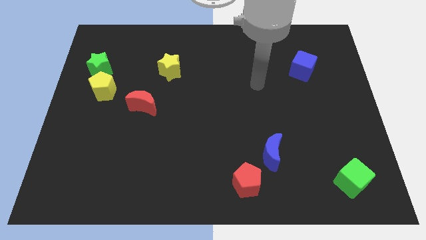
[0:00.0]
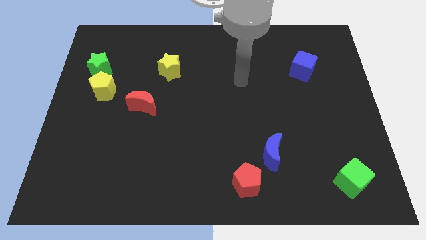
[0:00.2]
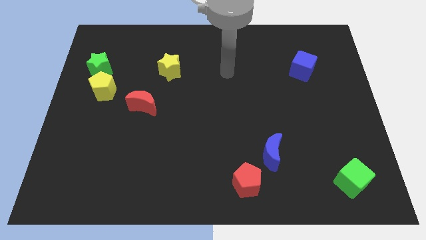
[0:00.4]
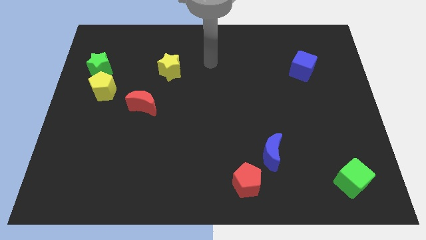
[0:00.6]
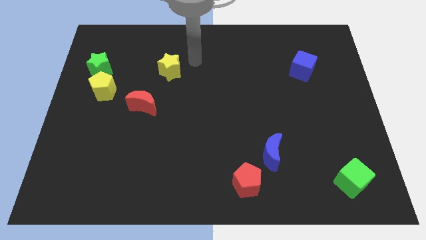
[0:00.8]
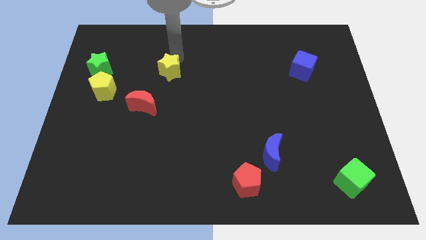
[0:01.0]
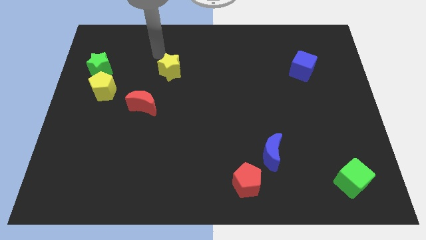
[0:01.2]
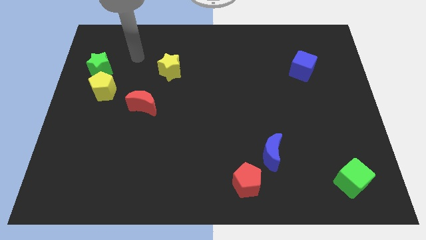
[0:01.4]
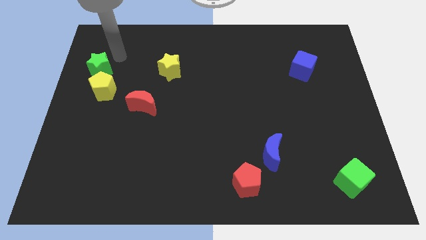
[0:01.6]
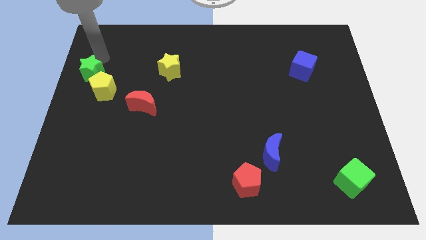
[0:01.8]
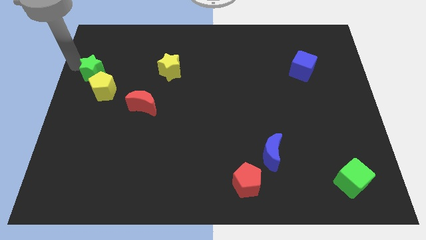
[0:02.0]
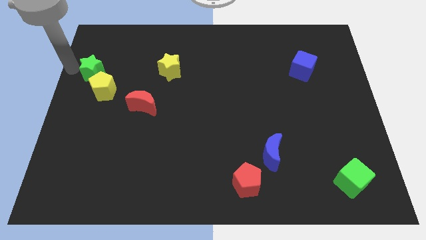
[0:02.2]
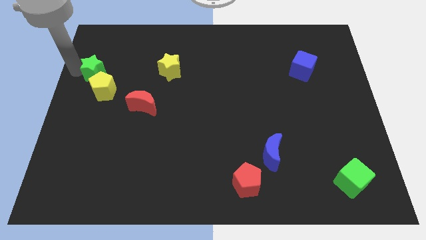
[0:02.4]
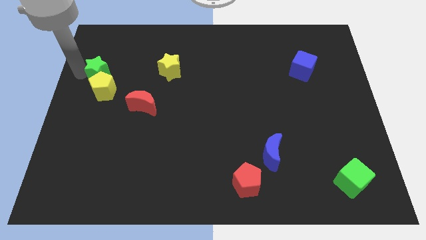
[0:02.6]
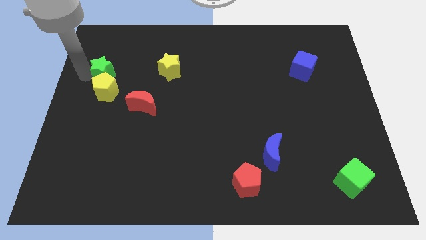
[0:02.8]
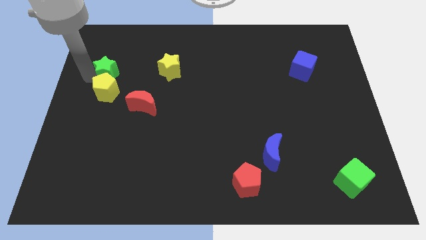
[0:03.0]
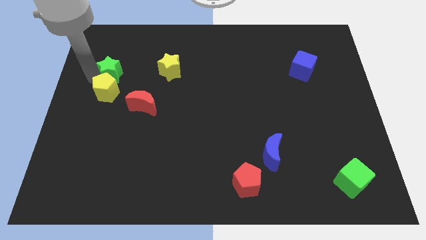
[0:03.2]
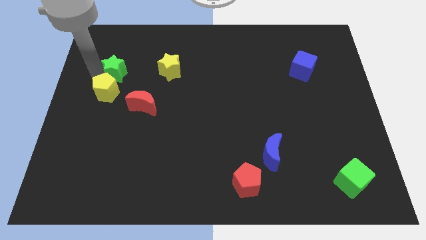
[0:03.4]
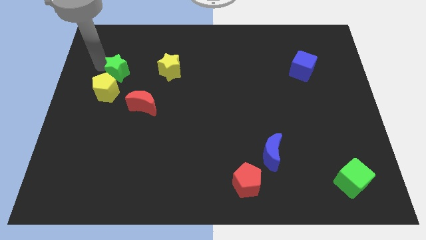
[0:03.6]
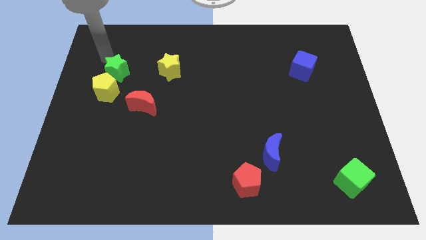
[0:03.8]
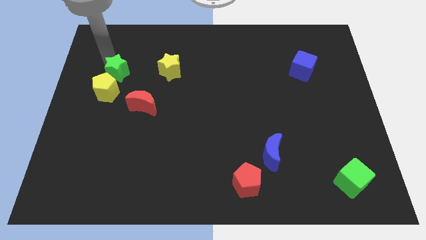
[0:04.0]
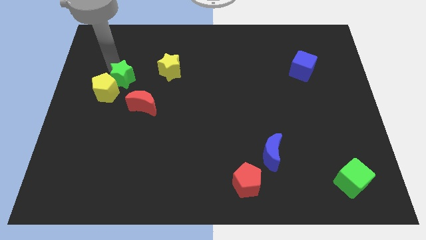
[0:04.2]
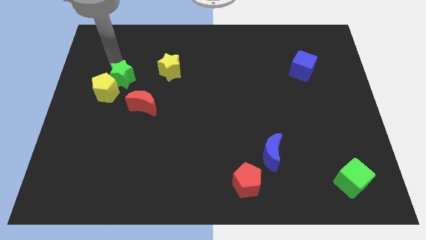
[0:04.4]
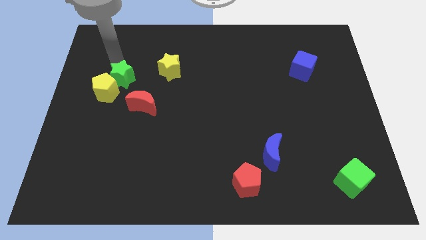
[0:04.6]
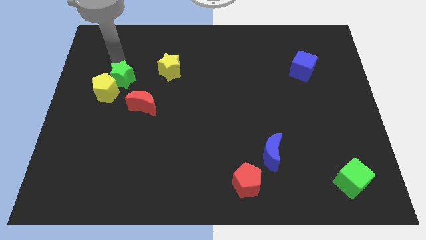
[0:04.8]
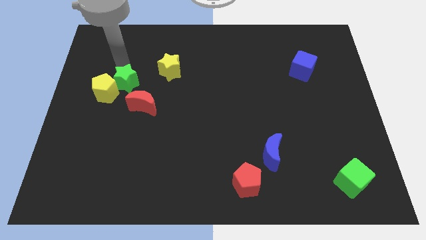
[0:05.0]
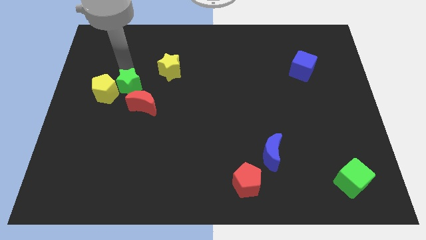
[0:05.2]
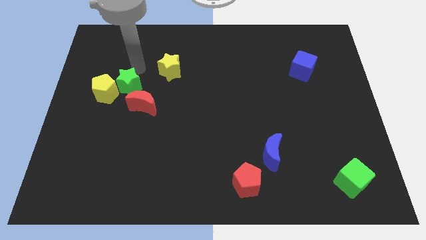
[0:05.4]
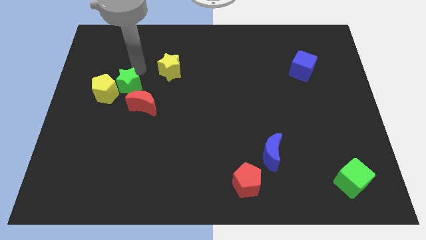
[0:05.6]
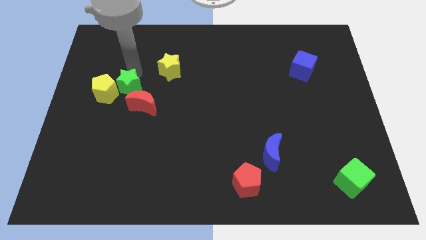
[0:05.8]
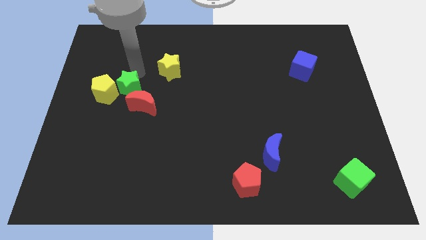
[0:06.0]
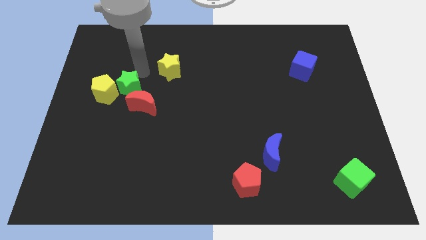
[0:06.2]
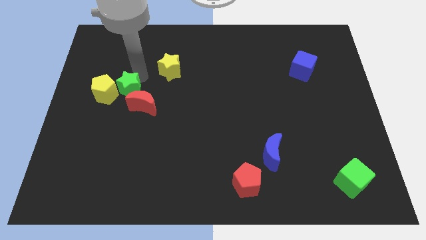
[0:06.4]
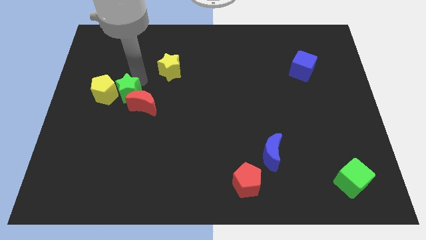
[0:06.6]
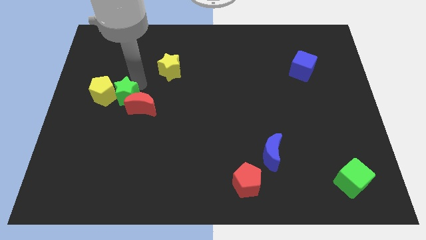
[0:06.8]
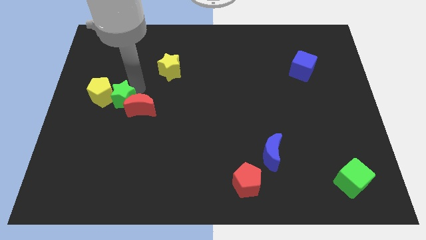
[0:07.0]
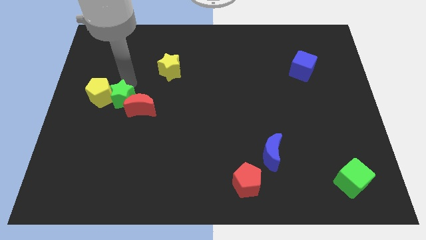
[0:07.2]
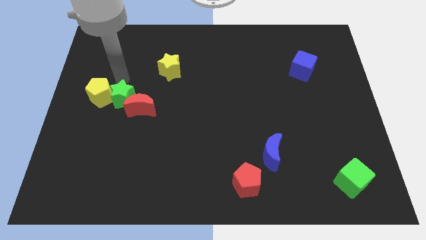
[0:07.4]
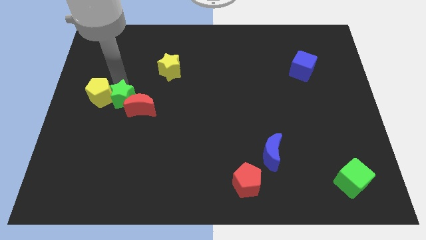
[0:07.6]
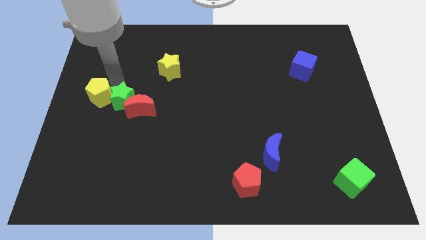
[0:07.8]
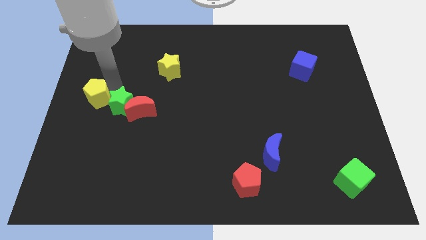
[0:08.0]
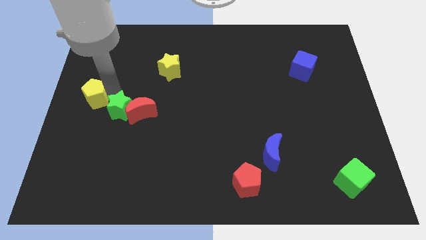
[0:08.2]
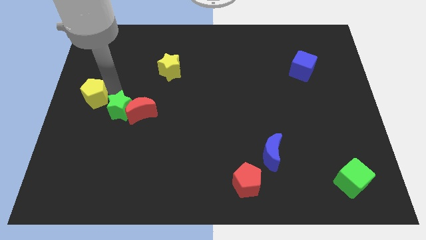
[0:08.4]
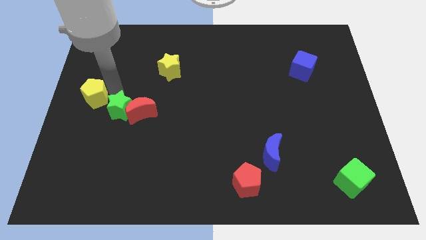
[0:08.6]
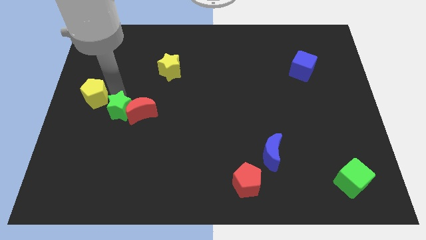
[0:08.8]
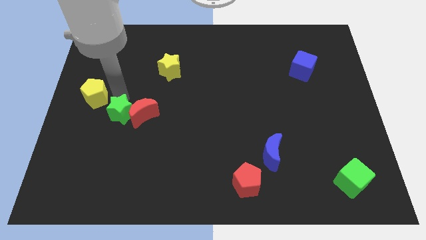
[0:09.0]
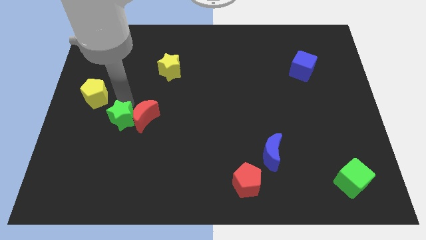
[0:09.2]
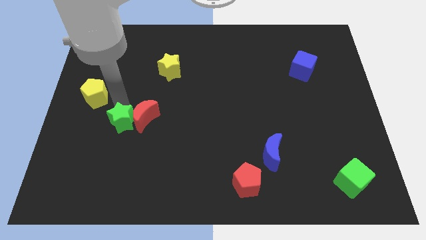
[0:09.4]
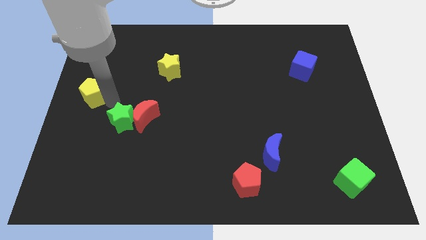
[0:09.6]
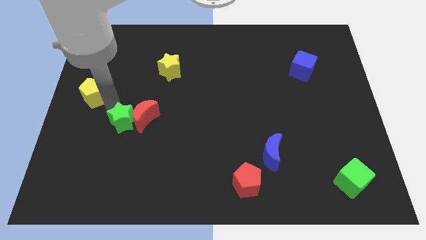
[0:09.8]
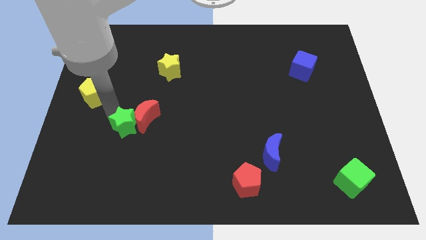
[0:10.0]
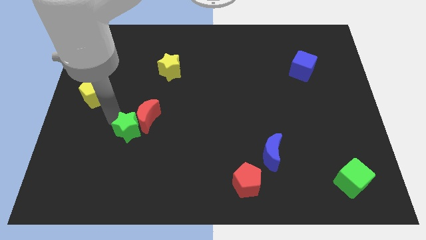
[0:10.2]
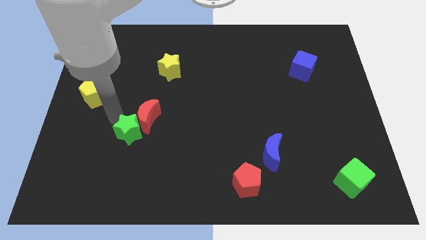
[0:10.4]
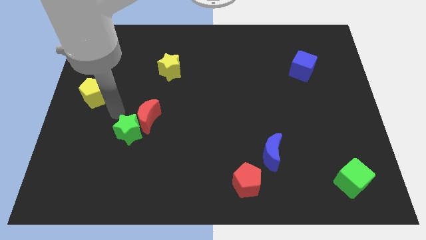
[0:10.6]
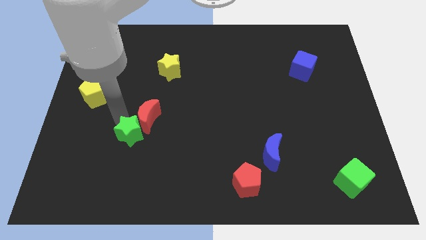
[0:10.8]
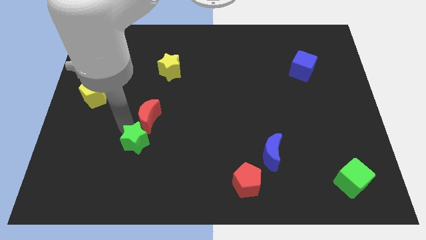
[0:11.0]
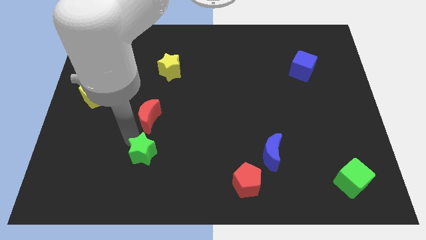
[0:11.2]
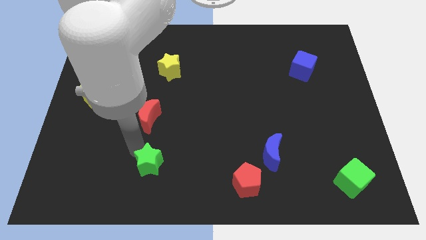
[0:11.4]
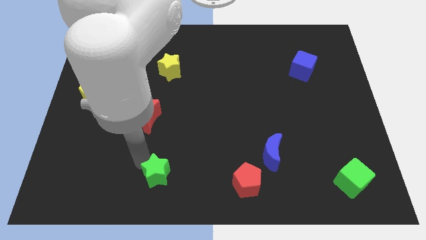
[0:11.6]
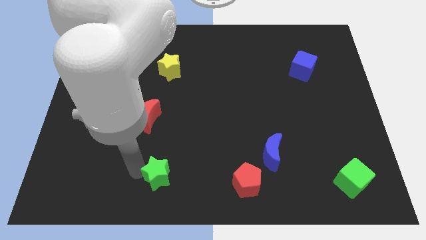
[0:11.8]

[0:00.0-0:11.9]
move the green star to the bottom
